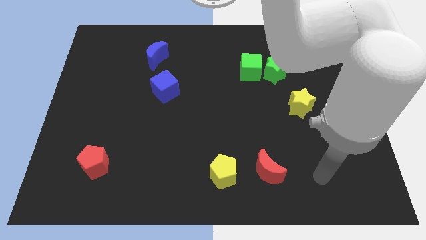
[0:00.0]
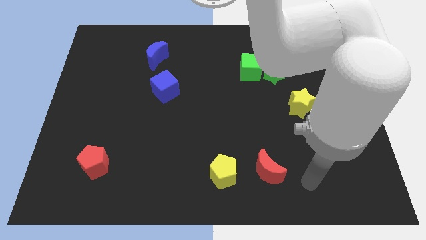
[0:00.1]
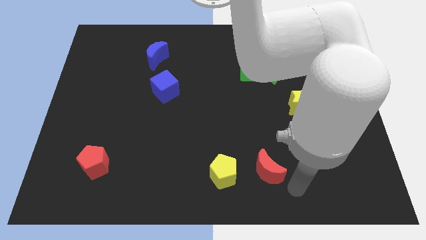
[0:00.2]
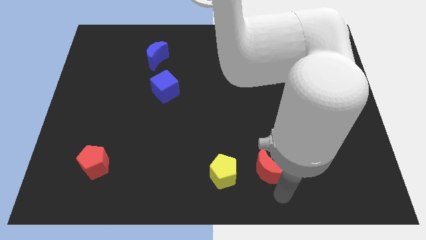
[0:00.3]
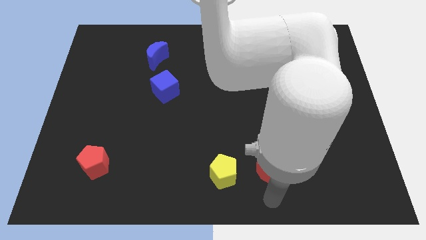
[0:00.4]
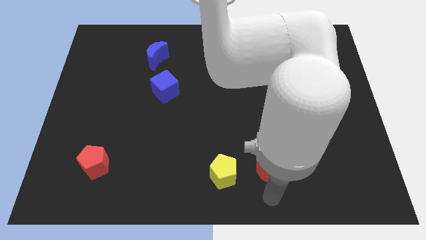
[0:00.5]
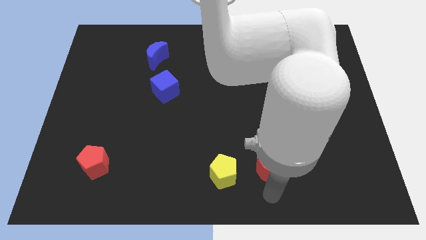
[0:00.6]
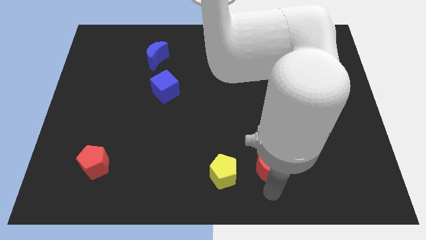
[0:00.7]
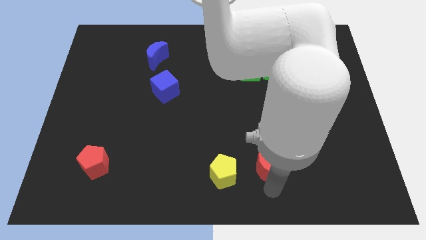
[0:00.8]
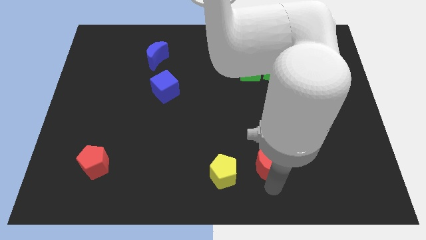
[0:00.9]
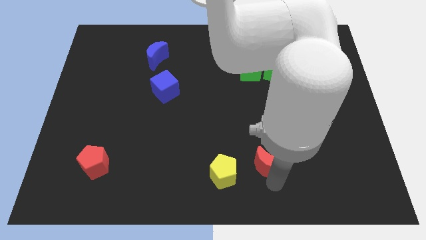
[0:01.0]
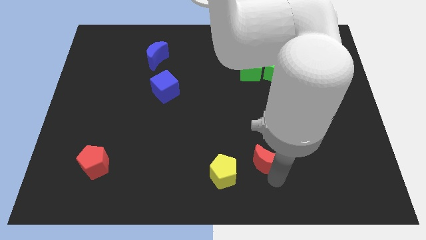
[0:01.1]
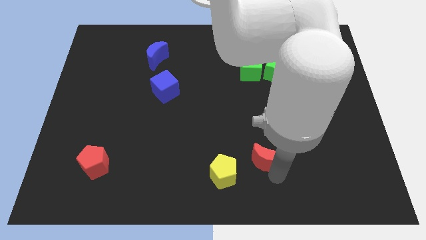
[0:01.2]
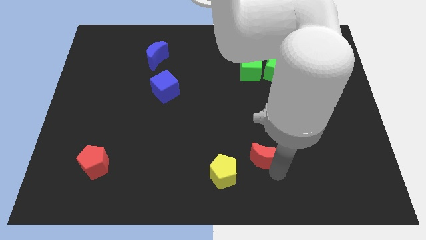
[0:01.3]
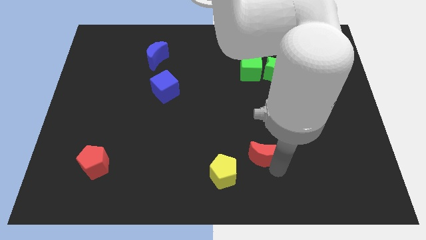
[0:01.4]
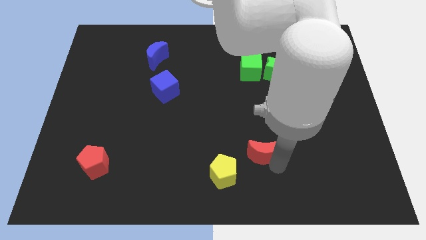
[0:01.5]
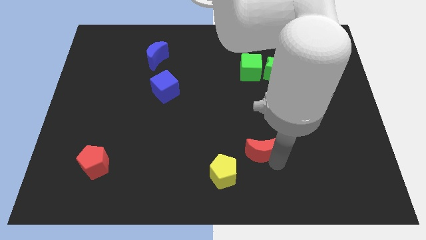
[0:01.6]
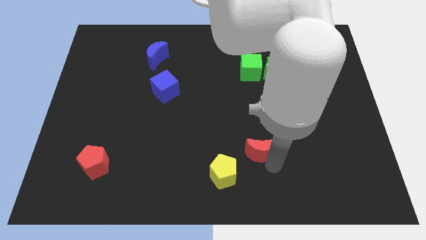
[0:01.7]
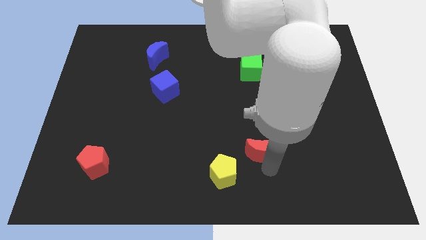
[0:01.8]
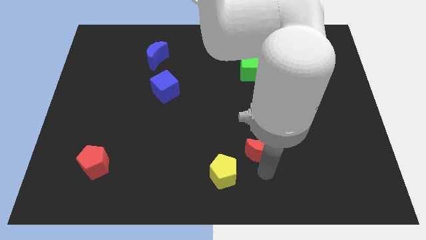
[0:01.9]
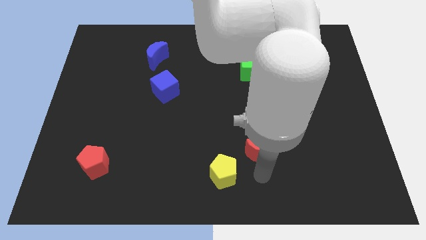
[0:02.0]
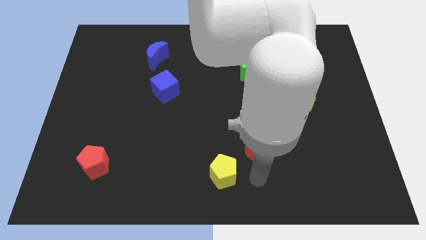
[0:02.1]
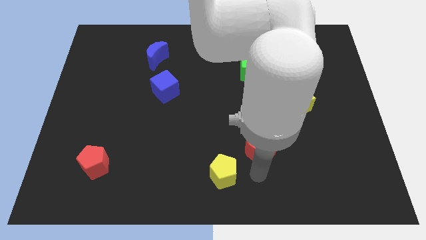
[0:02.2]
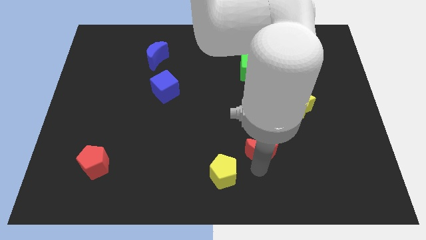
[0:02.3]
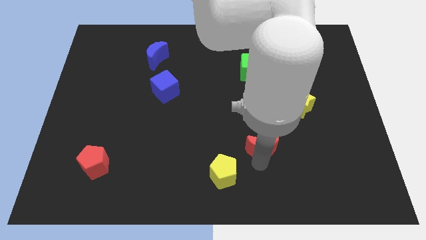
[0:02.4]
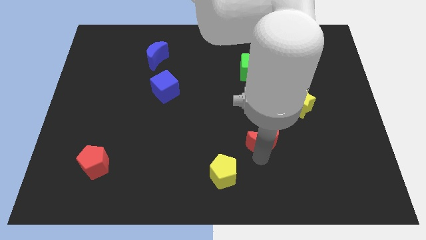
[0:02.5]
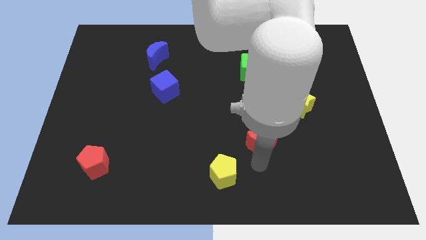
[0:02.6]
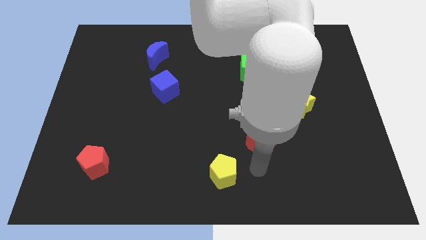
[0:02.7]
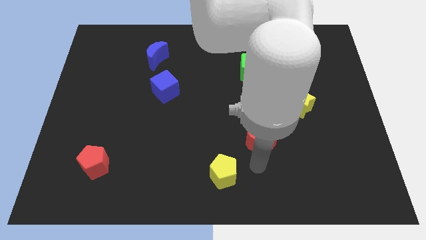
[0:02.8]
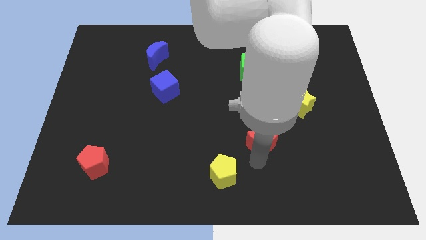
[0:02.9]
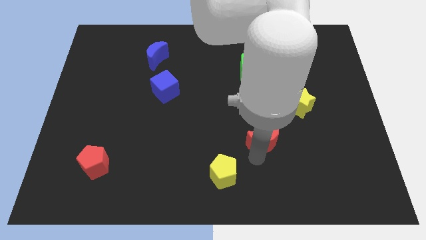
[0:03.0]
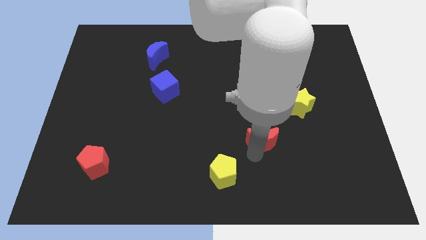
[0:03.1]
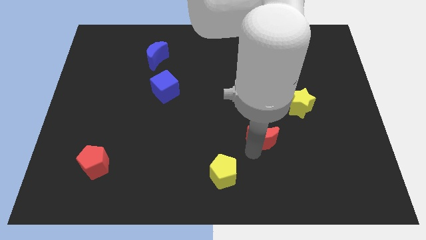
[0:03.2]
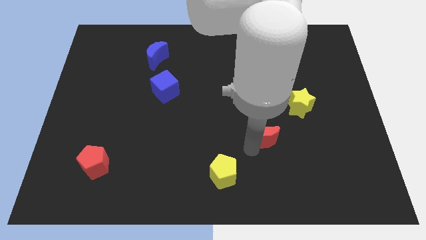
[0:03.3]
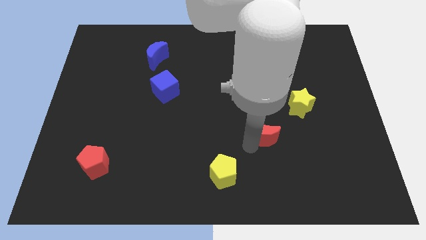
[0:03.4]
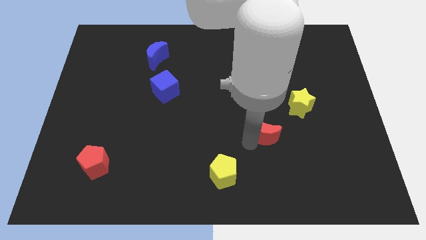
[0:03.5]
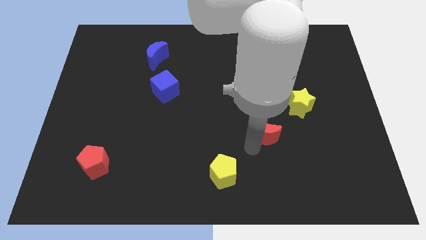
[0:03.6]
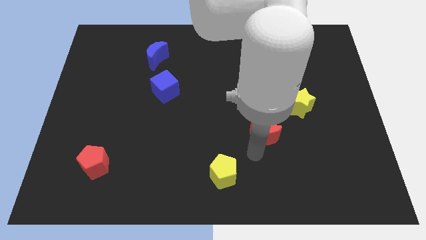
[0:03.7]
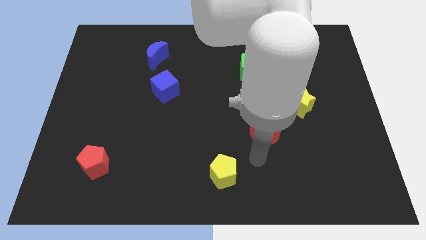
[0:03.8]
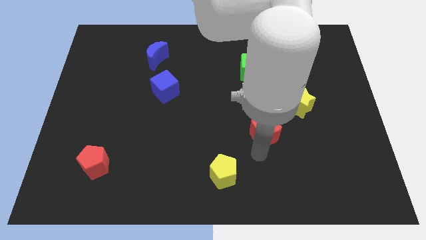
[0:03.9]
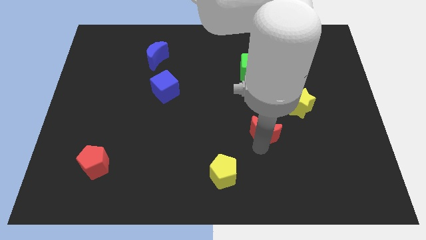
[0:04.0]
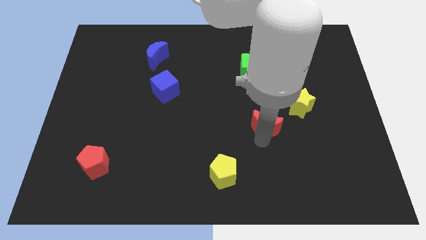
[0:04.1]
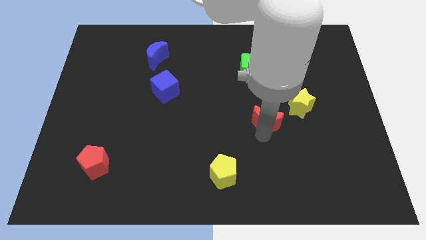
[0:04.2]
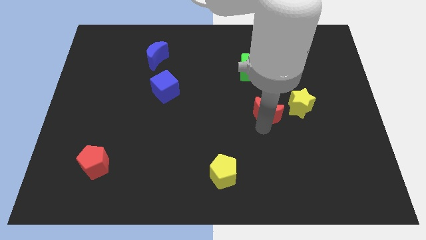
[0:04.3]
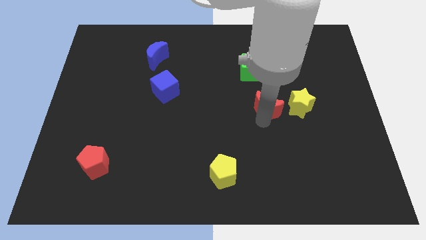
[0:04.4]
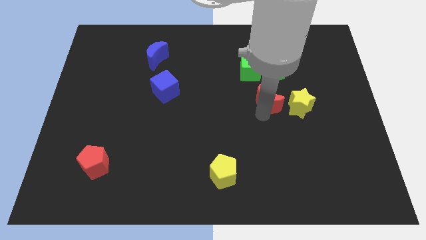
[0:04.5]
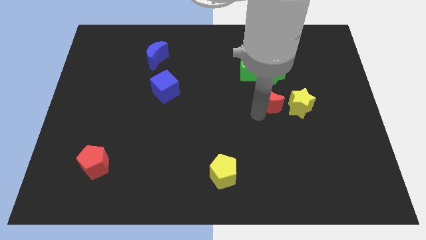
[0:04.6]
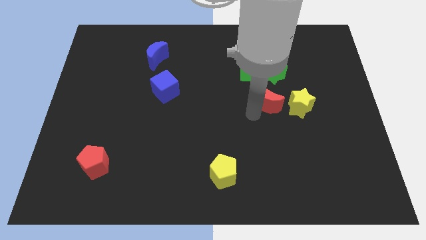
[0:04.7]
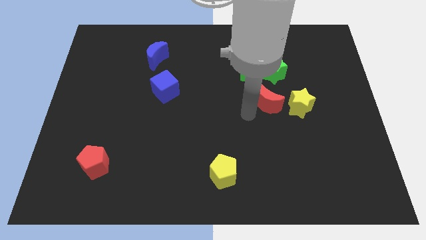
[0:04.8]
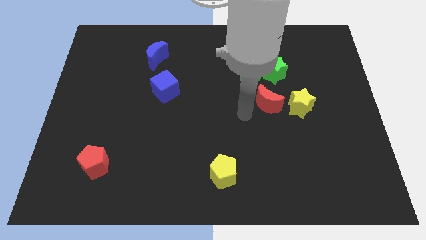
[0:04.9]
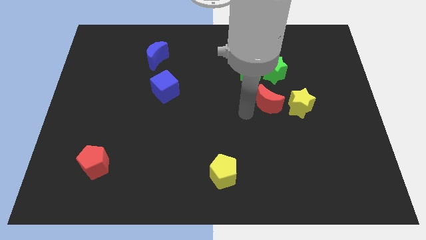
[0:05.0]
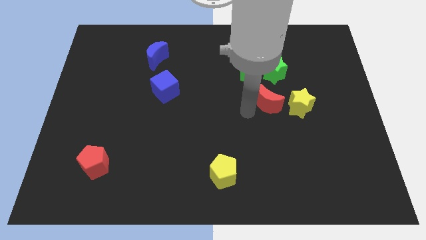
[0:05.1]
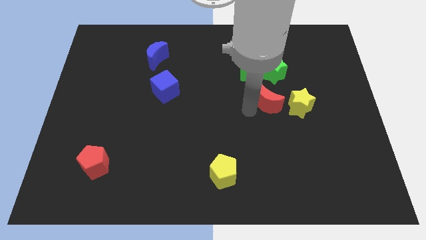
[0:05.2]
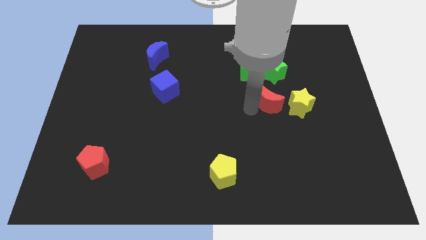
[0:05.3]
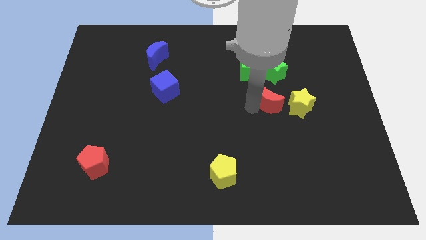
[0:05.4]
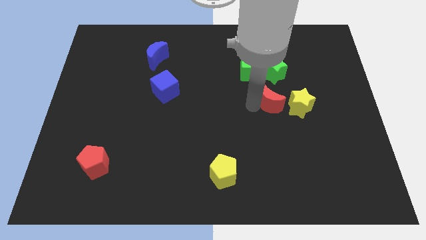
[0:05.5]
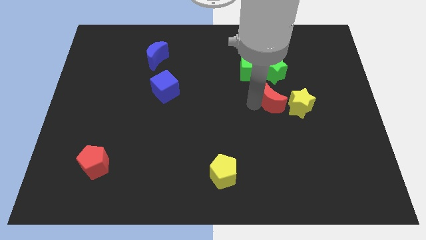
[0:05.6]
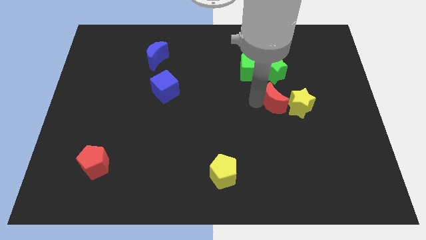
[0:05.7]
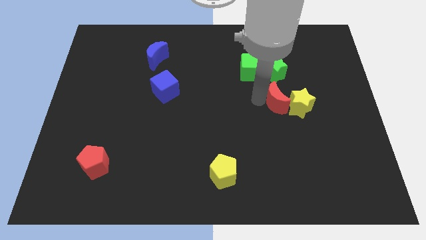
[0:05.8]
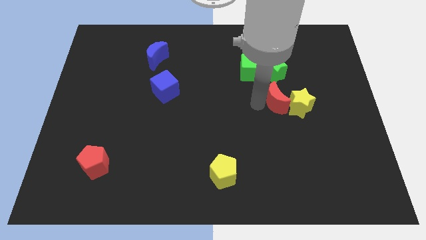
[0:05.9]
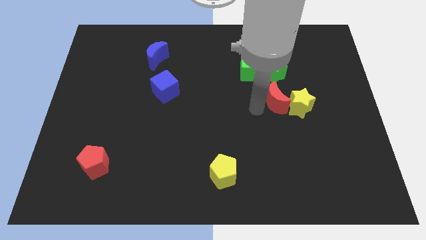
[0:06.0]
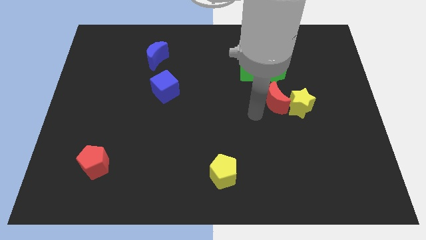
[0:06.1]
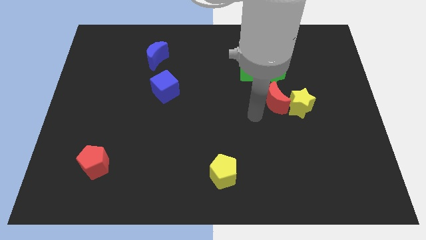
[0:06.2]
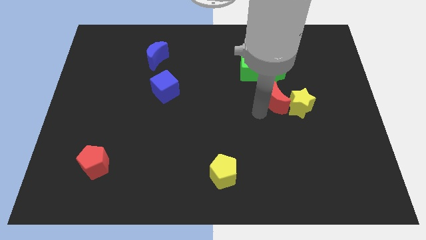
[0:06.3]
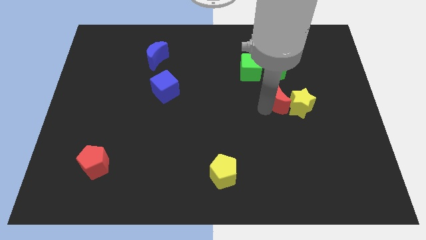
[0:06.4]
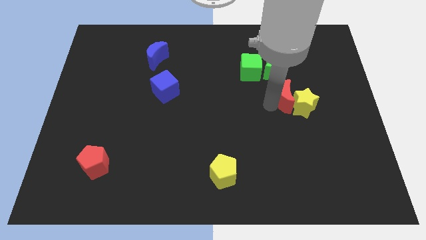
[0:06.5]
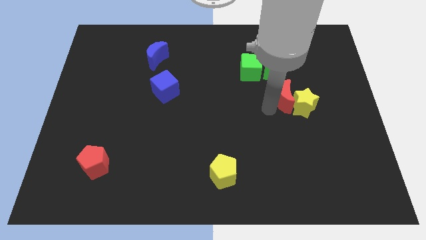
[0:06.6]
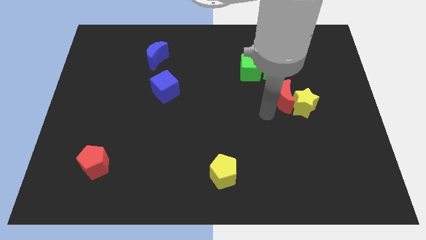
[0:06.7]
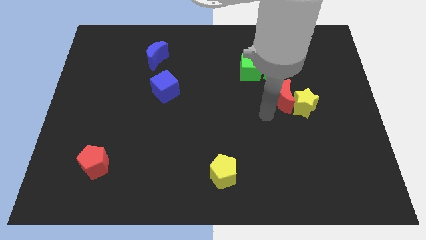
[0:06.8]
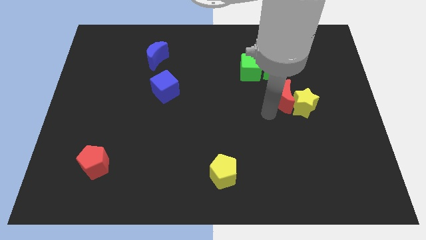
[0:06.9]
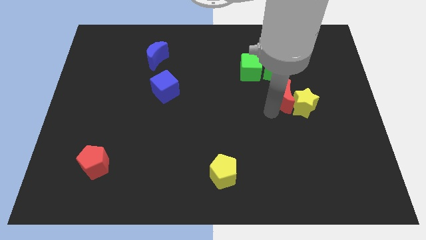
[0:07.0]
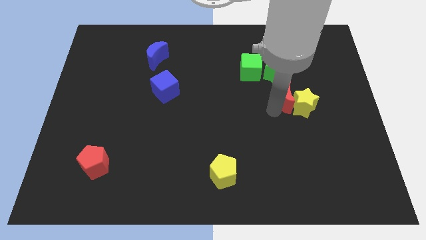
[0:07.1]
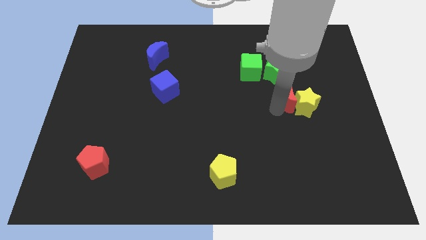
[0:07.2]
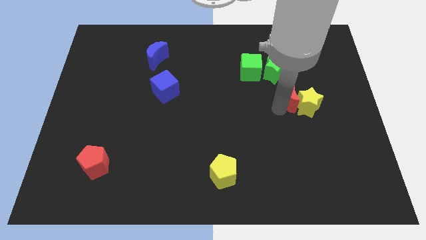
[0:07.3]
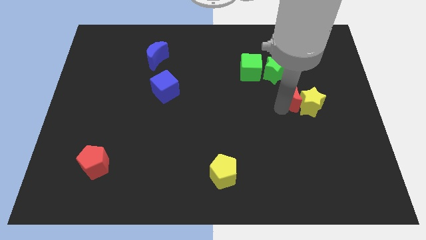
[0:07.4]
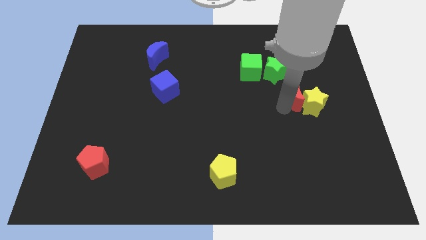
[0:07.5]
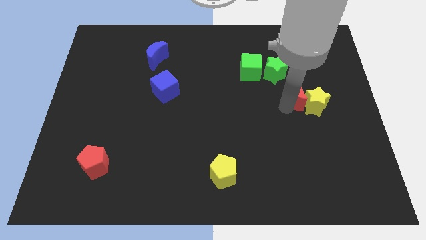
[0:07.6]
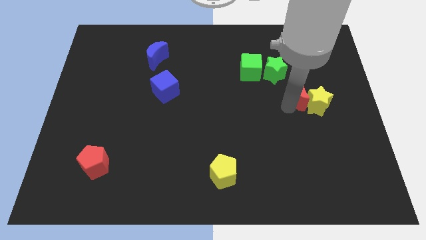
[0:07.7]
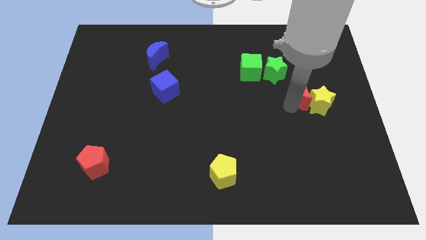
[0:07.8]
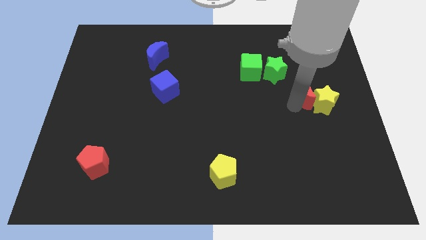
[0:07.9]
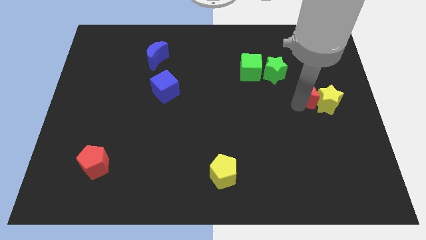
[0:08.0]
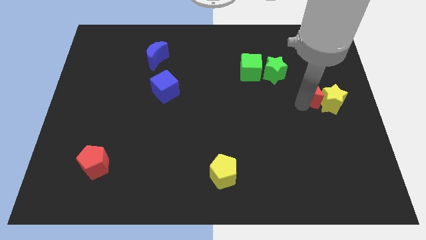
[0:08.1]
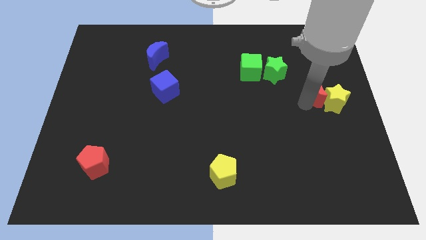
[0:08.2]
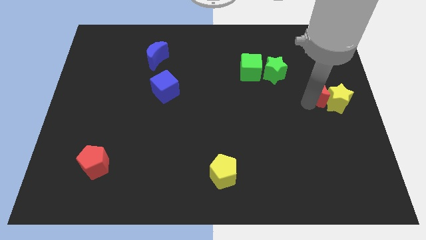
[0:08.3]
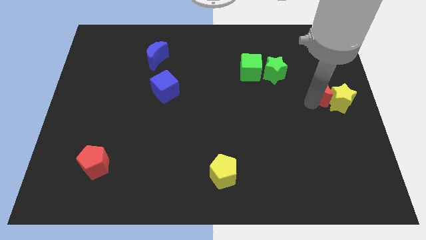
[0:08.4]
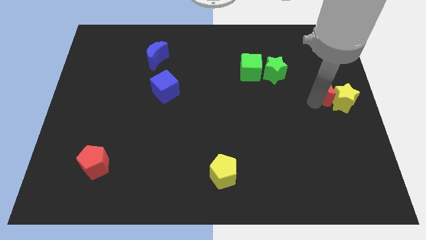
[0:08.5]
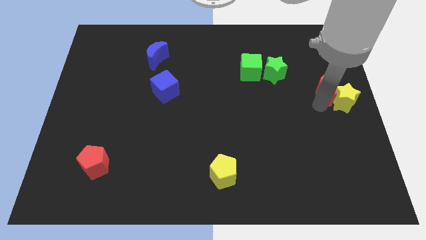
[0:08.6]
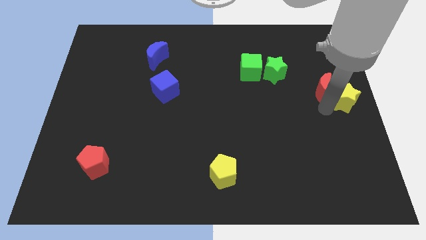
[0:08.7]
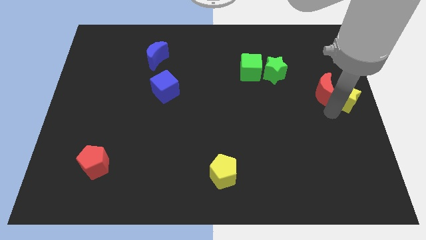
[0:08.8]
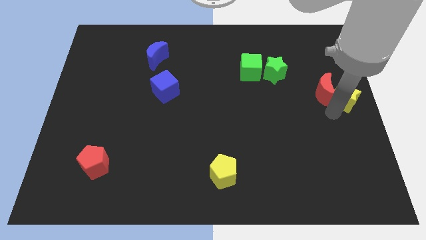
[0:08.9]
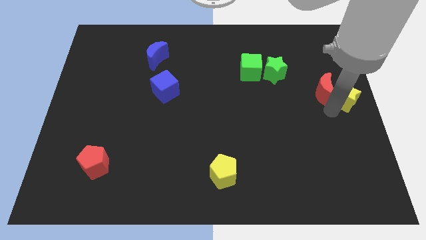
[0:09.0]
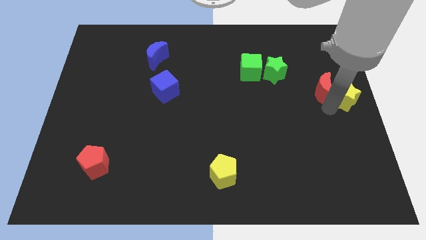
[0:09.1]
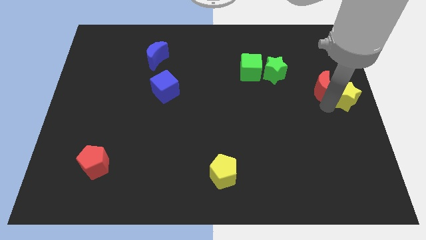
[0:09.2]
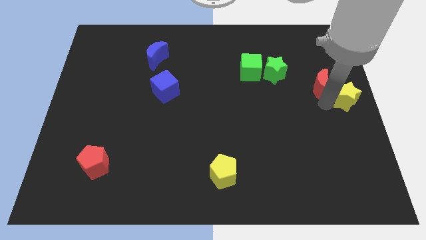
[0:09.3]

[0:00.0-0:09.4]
push the red moon right of the green star
